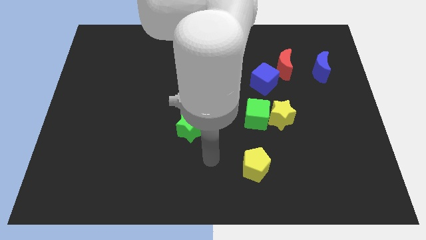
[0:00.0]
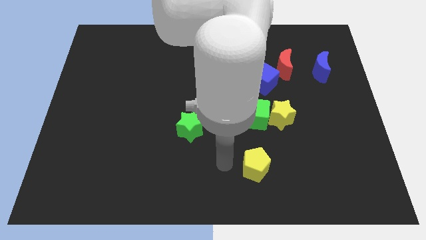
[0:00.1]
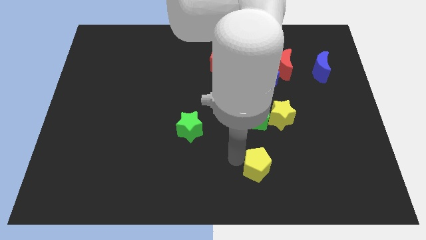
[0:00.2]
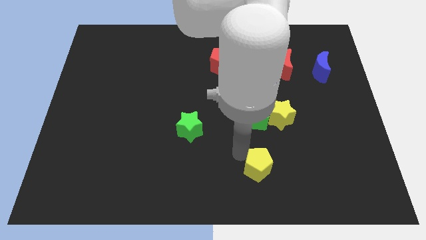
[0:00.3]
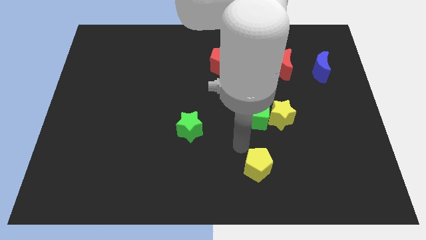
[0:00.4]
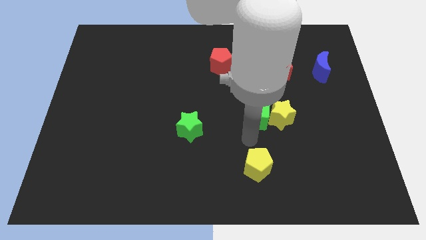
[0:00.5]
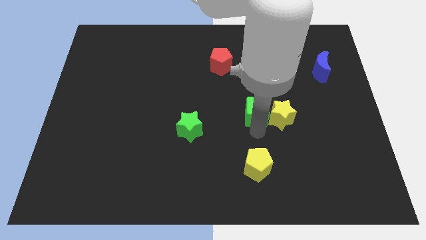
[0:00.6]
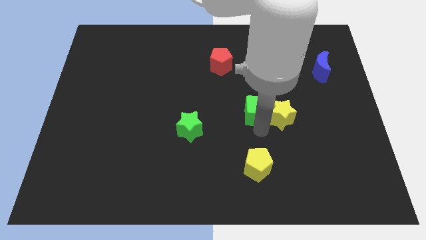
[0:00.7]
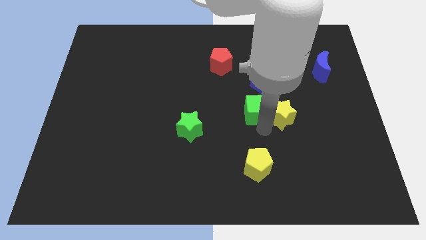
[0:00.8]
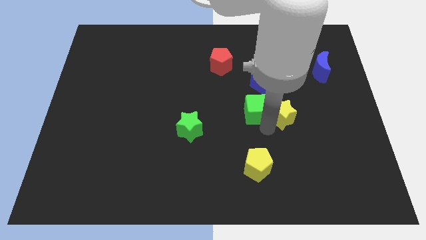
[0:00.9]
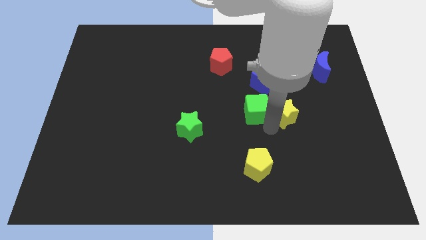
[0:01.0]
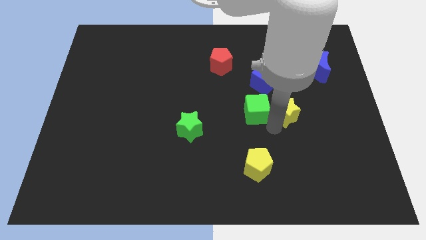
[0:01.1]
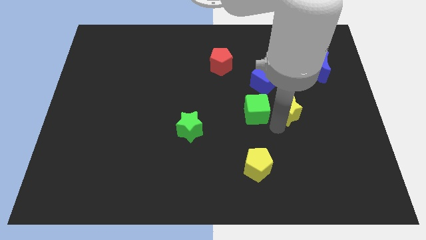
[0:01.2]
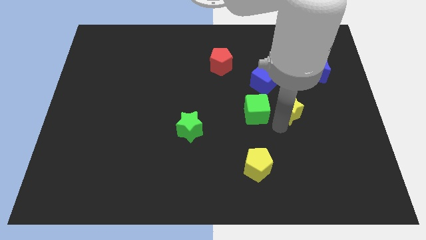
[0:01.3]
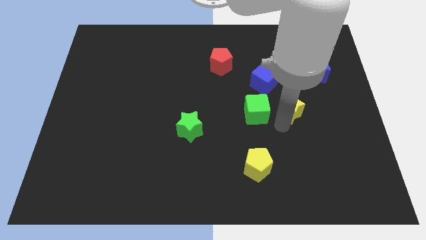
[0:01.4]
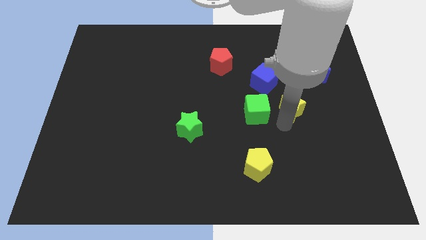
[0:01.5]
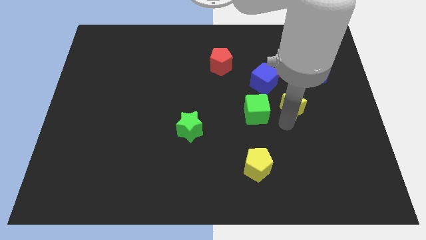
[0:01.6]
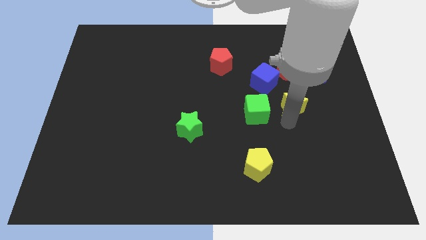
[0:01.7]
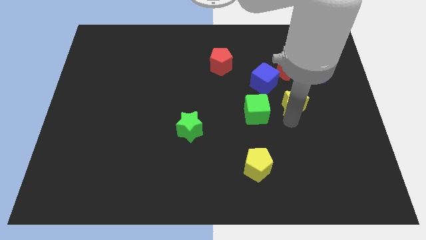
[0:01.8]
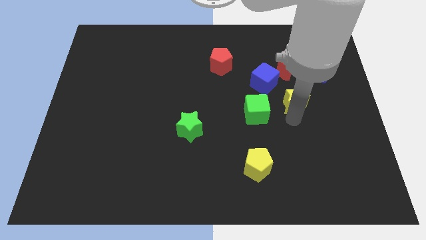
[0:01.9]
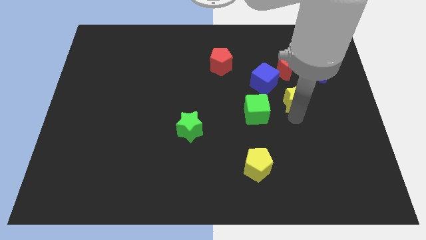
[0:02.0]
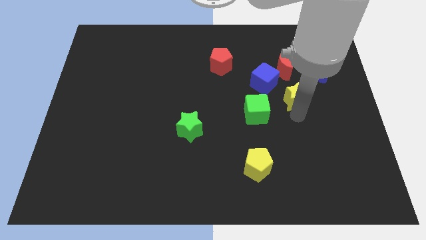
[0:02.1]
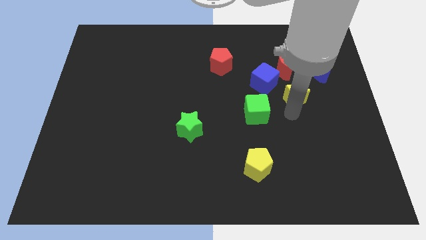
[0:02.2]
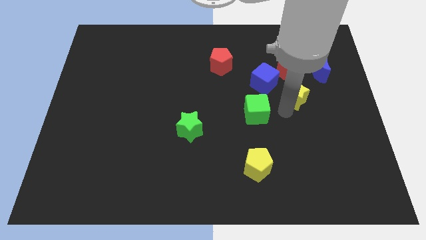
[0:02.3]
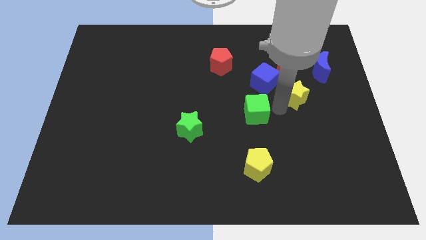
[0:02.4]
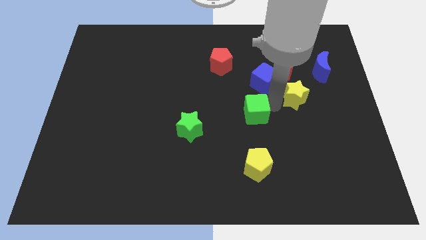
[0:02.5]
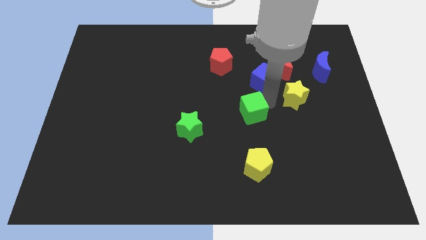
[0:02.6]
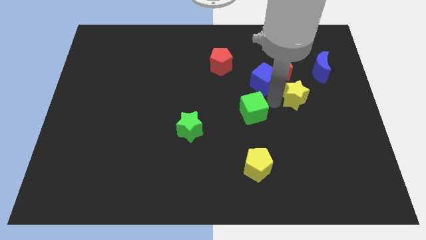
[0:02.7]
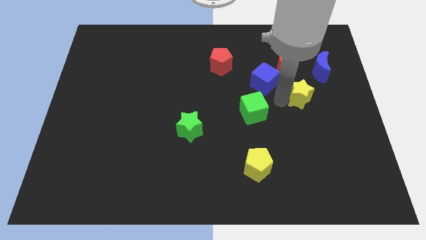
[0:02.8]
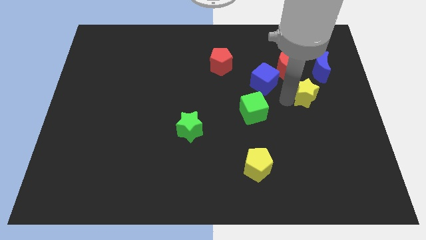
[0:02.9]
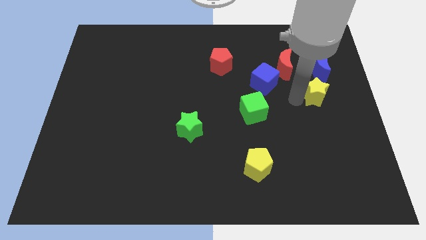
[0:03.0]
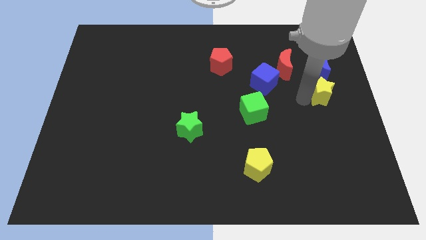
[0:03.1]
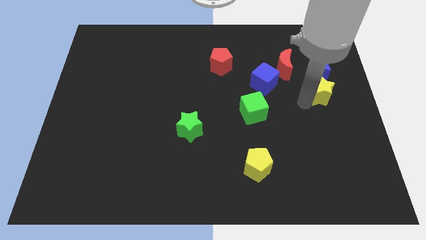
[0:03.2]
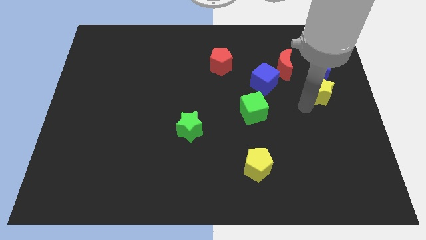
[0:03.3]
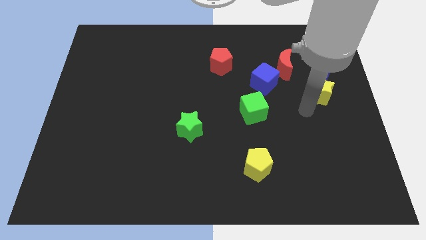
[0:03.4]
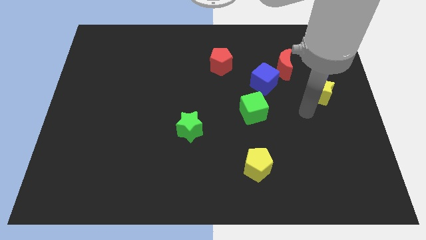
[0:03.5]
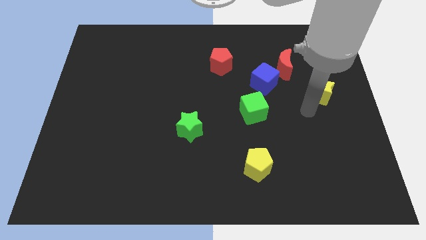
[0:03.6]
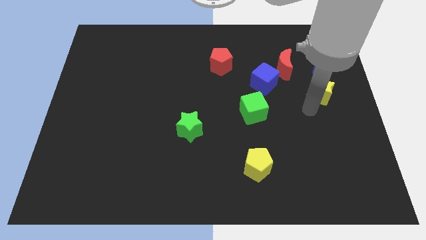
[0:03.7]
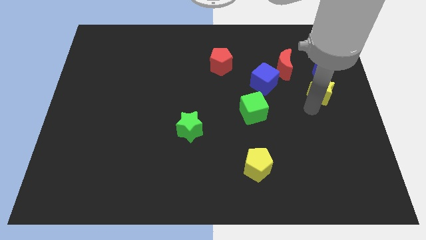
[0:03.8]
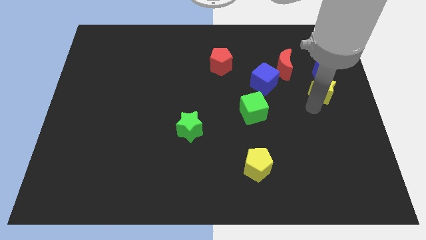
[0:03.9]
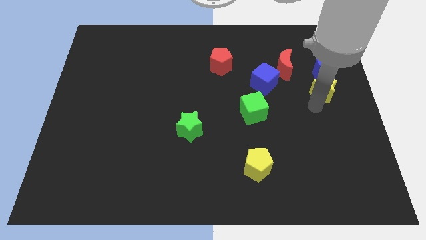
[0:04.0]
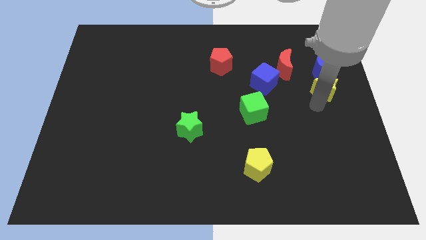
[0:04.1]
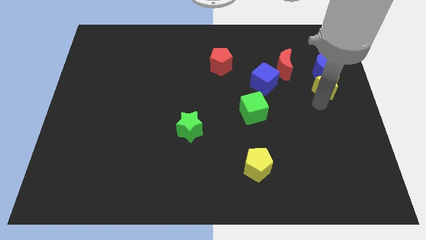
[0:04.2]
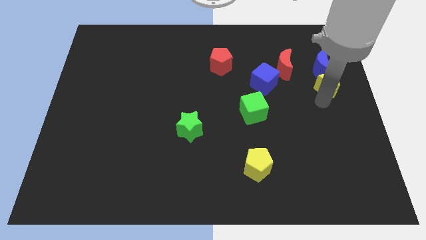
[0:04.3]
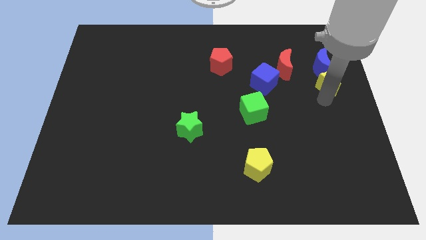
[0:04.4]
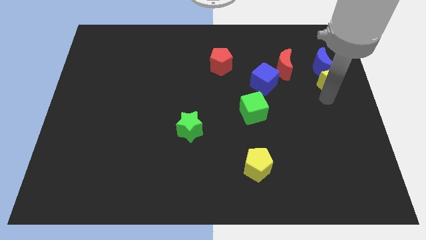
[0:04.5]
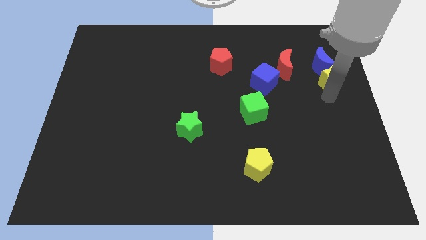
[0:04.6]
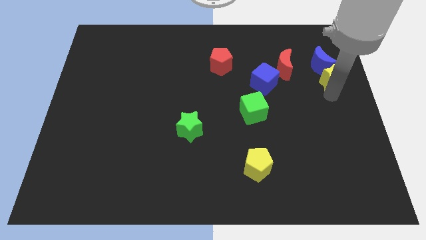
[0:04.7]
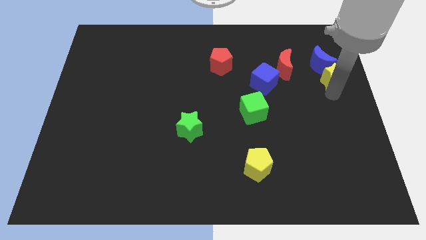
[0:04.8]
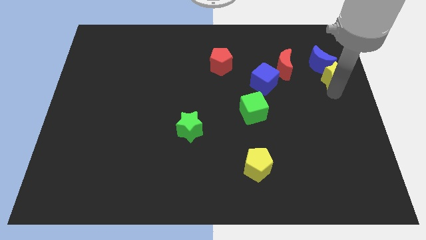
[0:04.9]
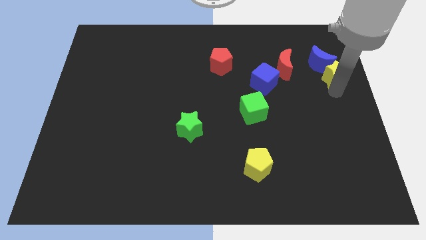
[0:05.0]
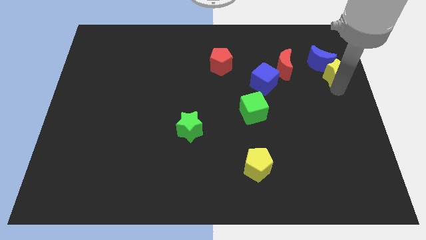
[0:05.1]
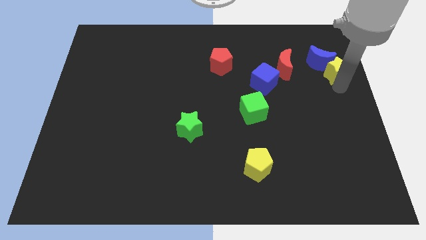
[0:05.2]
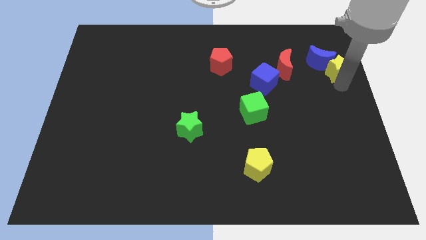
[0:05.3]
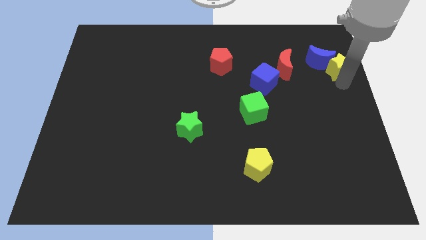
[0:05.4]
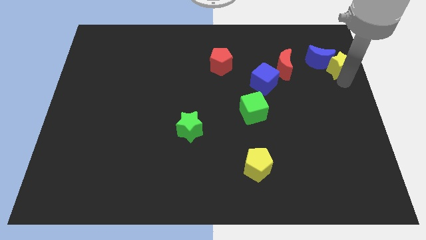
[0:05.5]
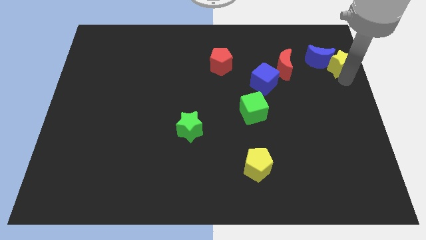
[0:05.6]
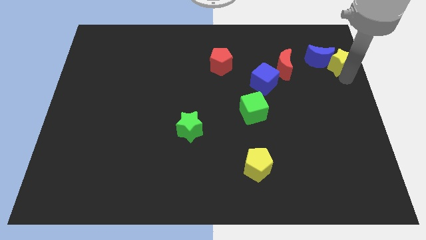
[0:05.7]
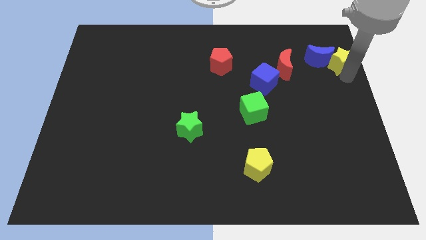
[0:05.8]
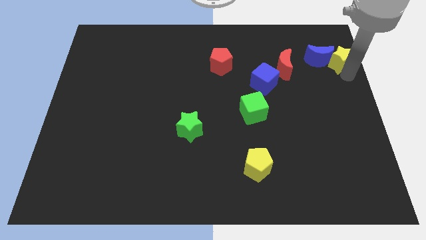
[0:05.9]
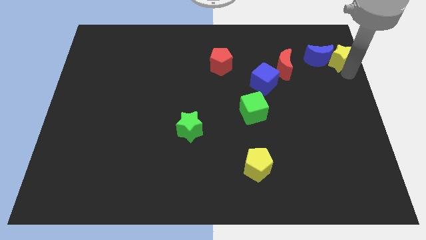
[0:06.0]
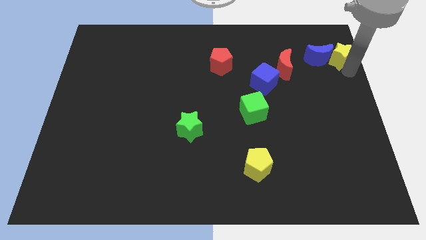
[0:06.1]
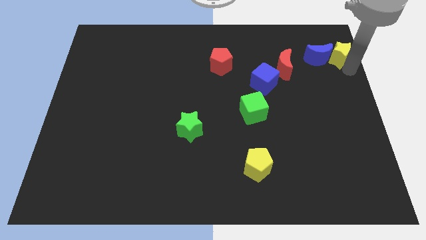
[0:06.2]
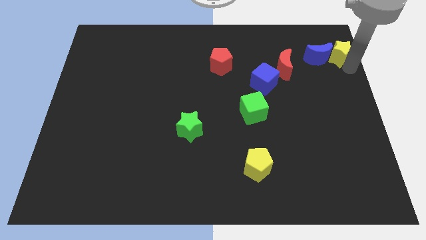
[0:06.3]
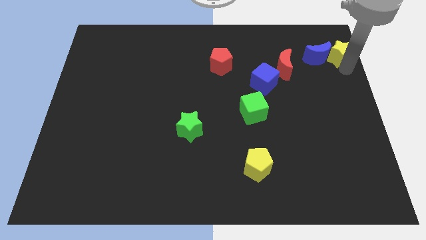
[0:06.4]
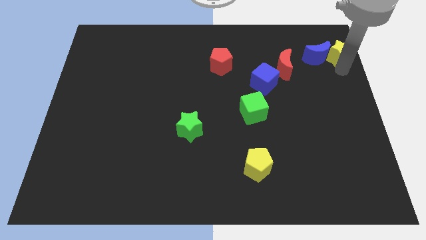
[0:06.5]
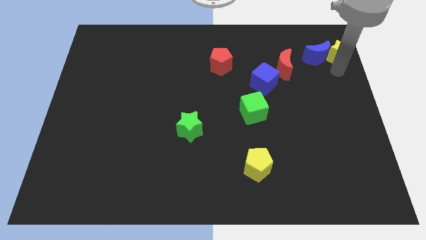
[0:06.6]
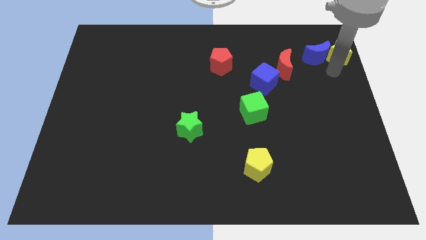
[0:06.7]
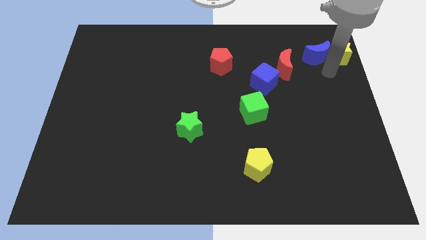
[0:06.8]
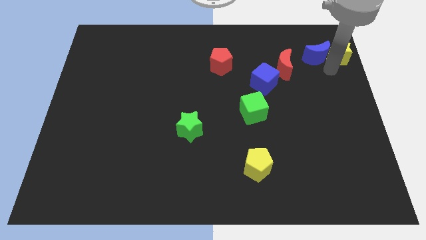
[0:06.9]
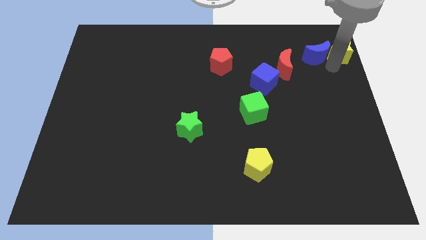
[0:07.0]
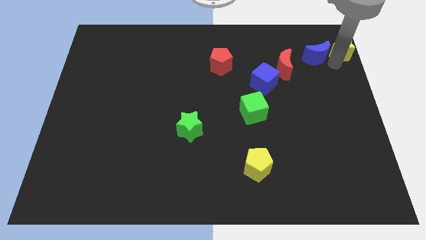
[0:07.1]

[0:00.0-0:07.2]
push the yellow star to the upper right corner
